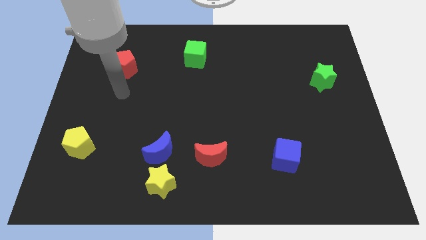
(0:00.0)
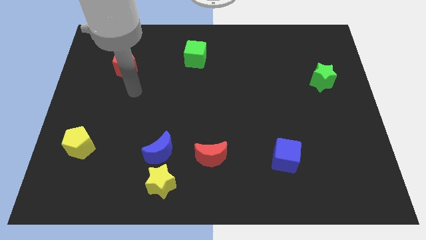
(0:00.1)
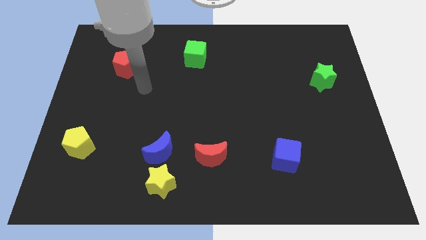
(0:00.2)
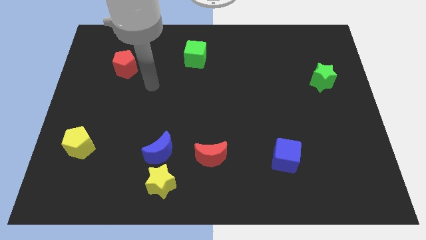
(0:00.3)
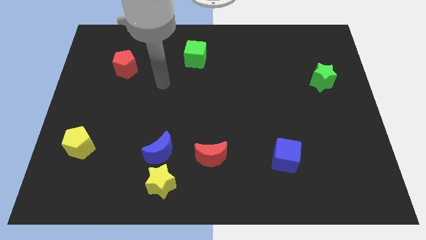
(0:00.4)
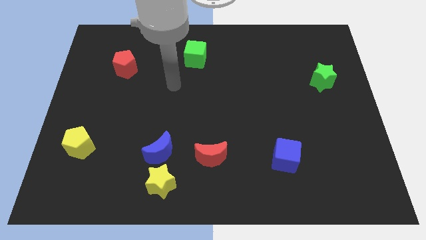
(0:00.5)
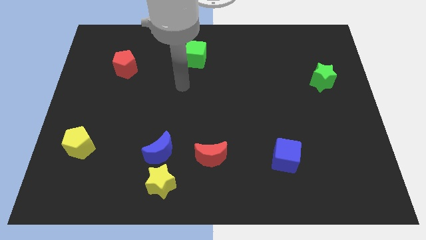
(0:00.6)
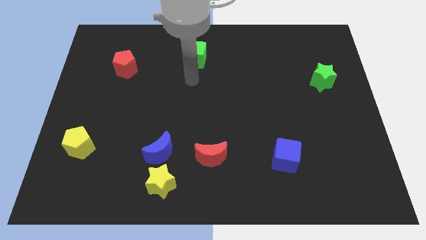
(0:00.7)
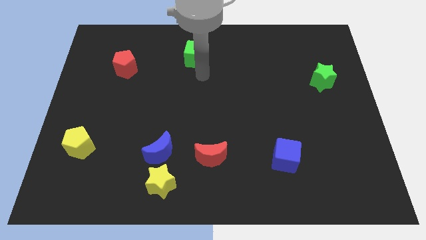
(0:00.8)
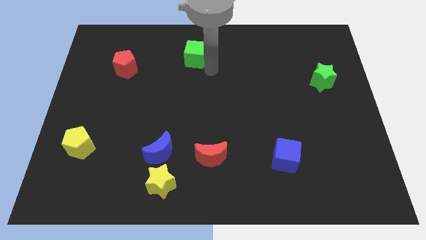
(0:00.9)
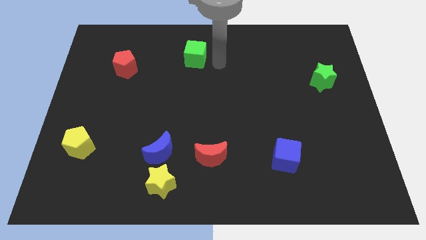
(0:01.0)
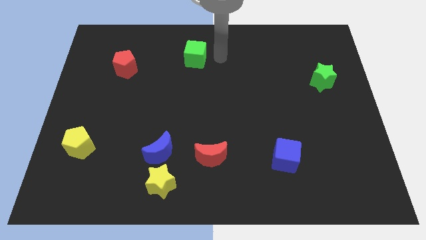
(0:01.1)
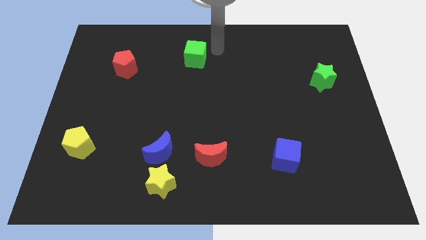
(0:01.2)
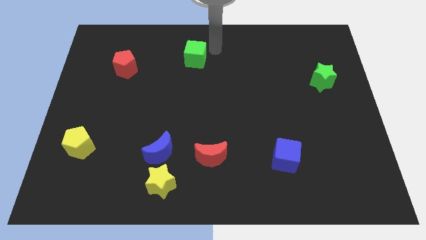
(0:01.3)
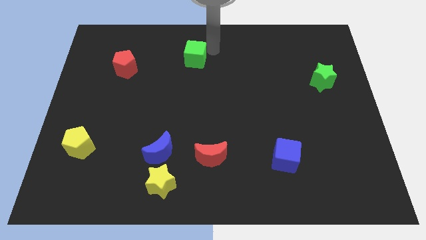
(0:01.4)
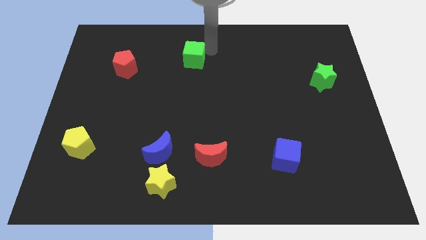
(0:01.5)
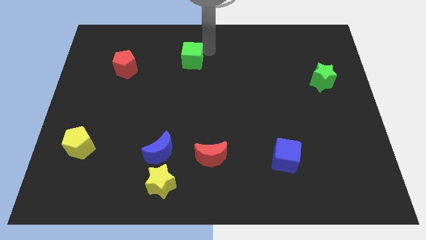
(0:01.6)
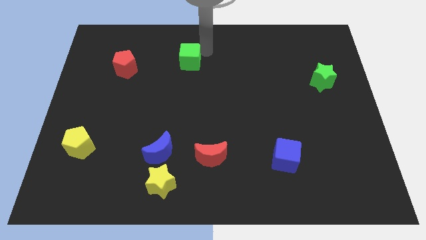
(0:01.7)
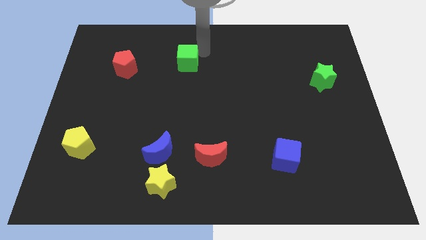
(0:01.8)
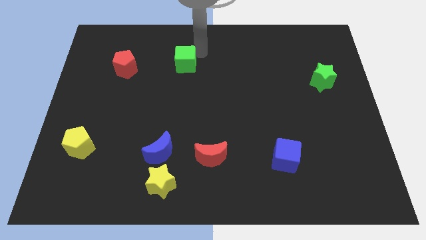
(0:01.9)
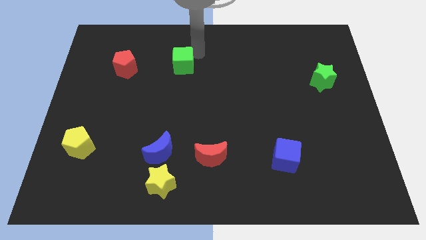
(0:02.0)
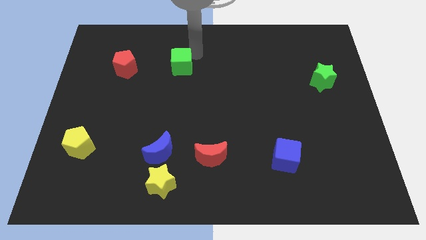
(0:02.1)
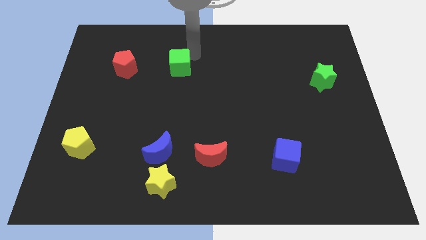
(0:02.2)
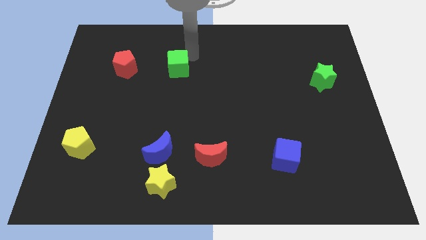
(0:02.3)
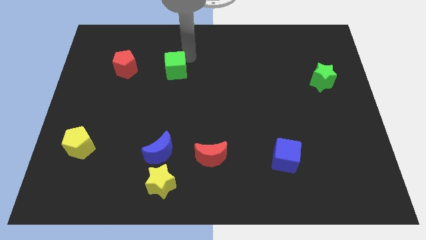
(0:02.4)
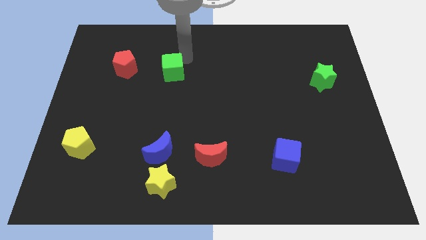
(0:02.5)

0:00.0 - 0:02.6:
push the green cube diagonally down and to the left slightly

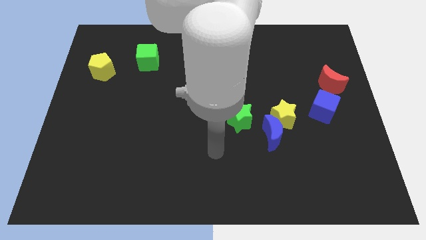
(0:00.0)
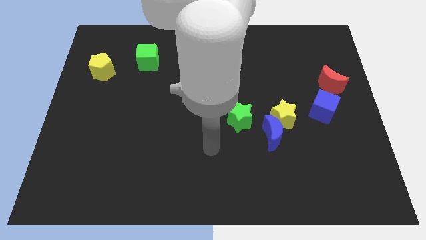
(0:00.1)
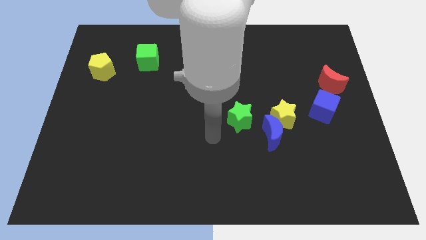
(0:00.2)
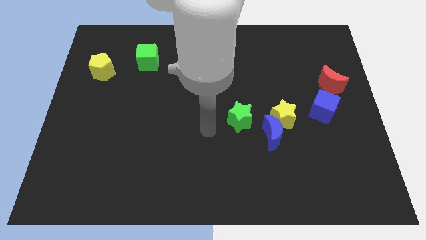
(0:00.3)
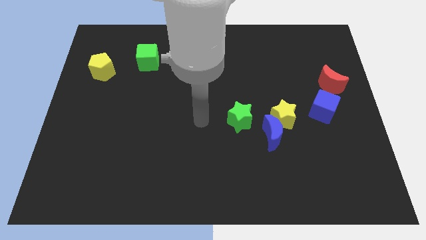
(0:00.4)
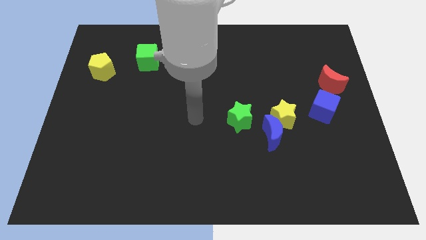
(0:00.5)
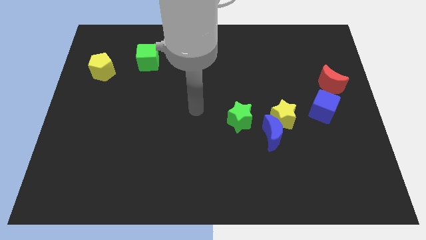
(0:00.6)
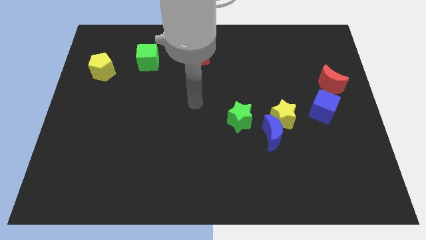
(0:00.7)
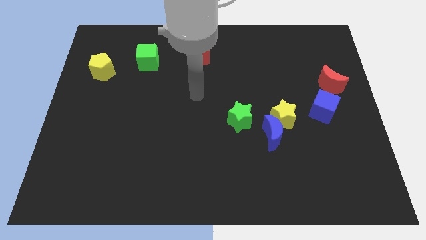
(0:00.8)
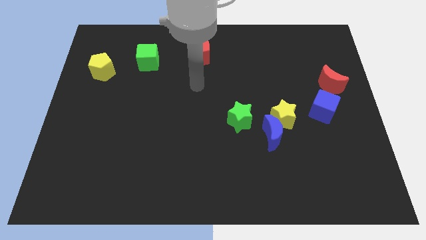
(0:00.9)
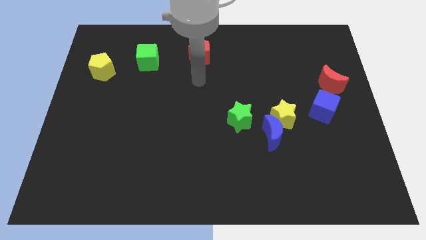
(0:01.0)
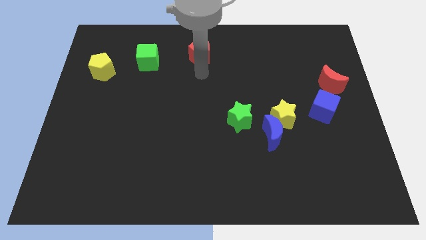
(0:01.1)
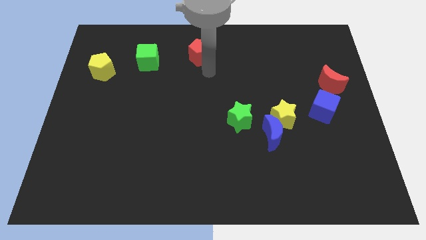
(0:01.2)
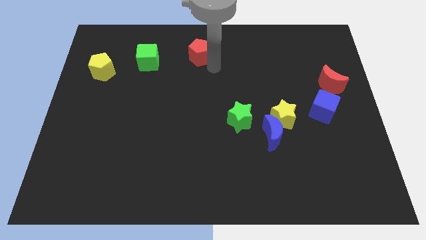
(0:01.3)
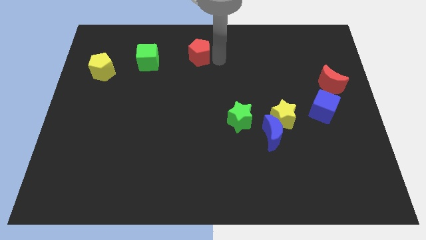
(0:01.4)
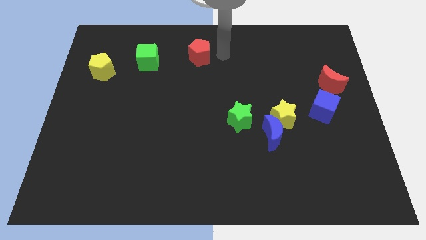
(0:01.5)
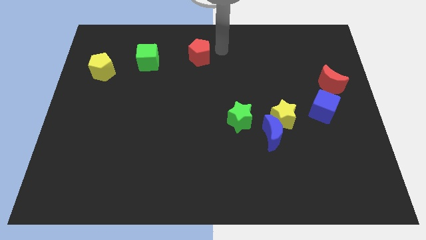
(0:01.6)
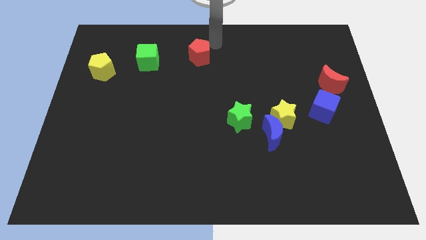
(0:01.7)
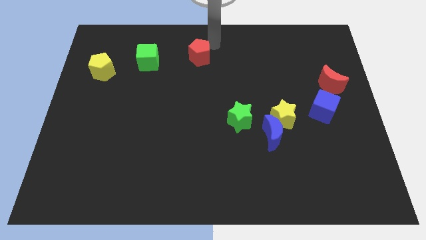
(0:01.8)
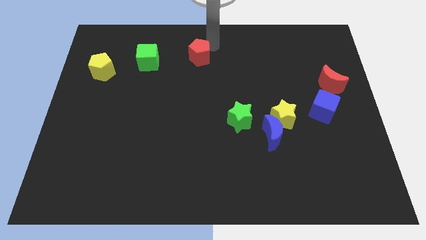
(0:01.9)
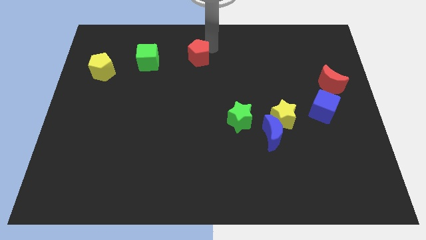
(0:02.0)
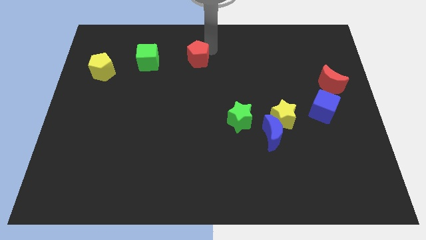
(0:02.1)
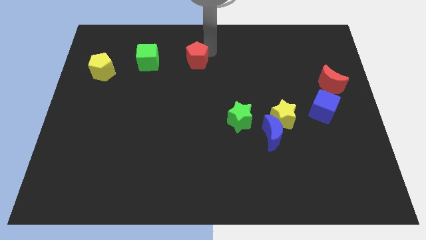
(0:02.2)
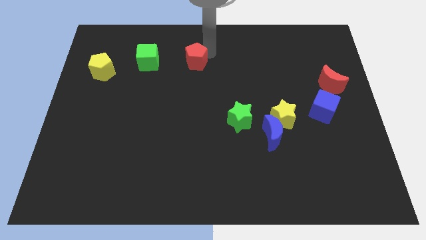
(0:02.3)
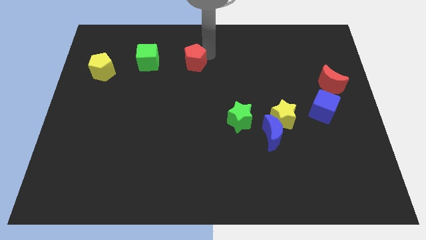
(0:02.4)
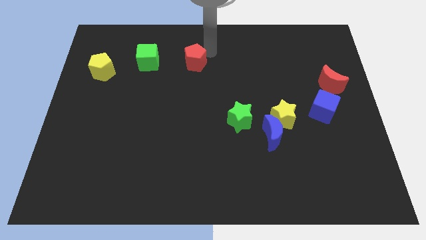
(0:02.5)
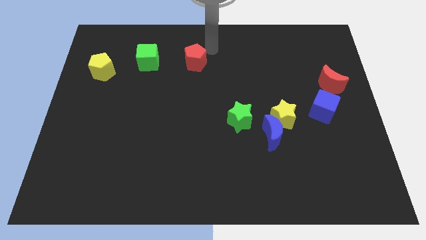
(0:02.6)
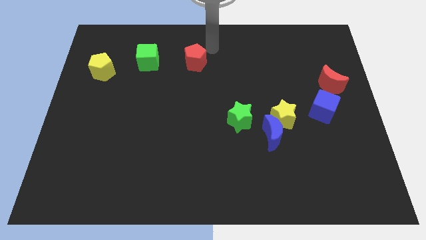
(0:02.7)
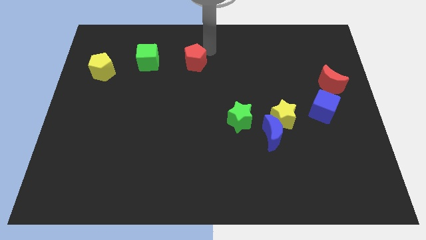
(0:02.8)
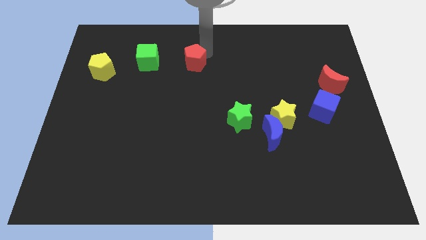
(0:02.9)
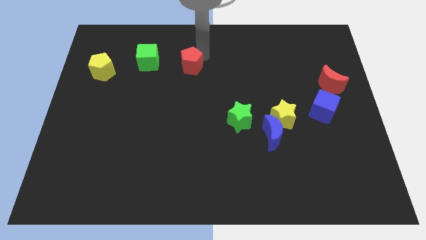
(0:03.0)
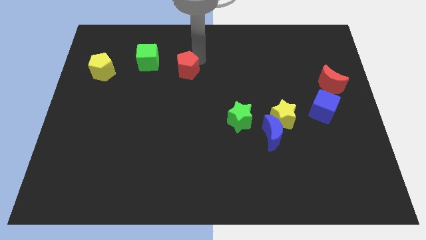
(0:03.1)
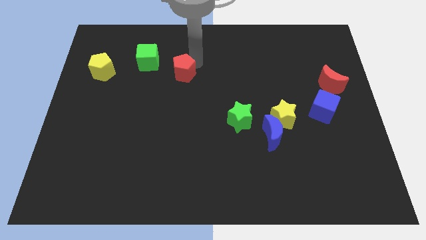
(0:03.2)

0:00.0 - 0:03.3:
push the red pentagon a little downwards and to the left diagonally

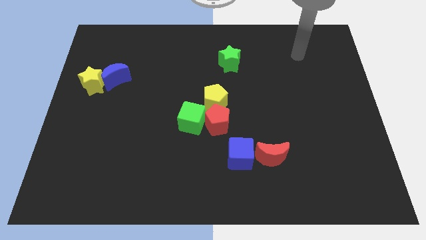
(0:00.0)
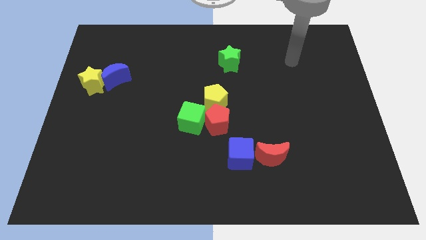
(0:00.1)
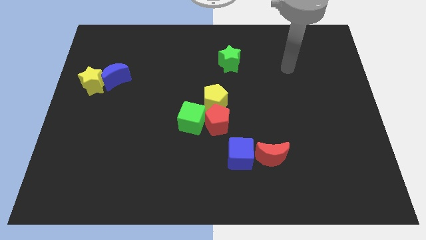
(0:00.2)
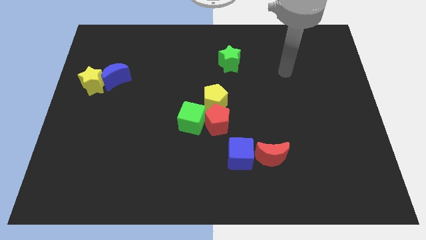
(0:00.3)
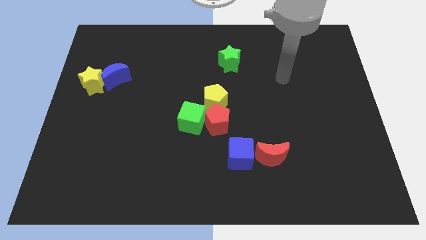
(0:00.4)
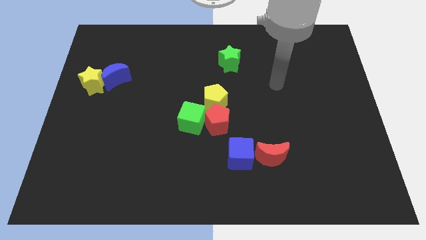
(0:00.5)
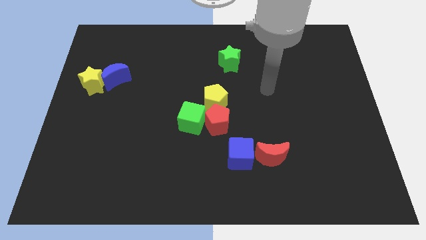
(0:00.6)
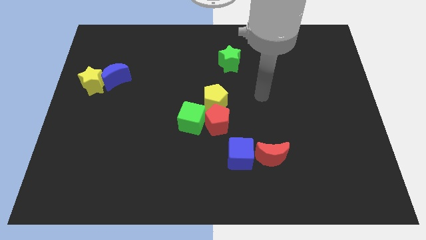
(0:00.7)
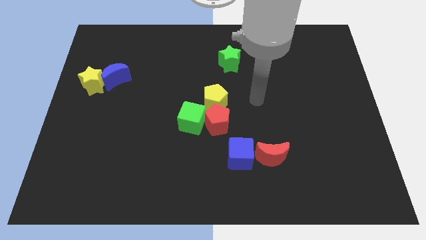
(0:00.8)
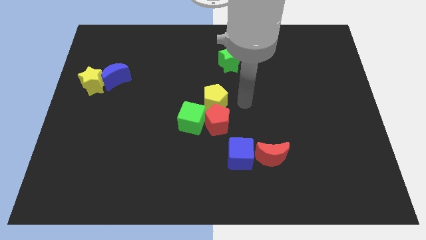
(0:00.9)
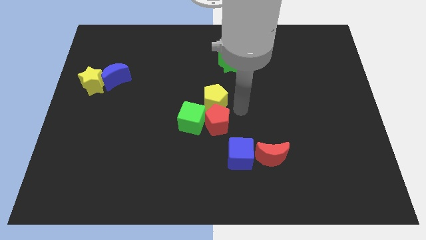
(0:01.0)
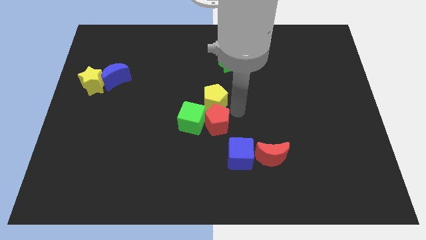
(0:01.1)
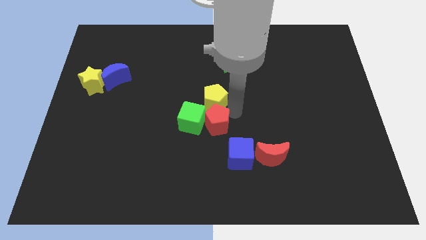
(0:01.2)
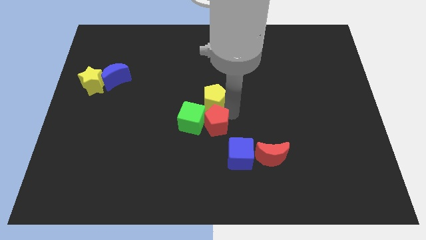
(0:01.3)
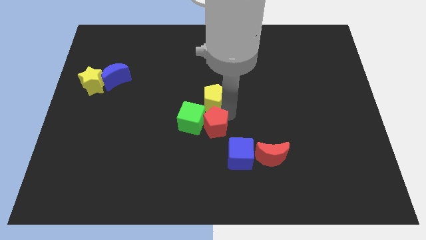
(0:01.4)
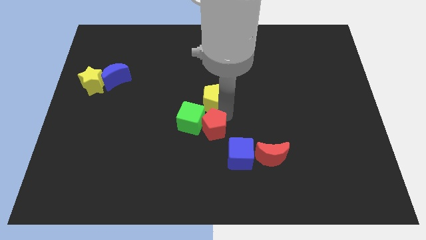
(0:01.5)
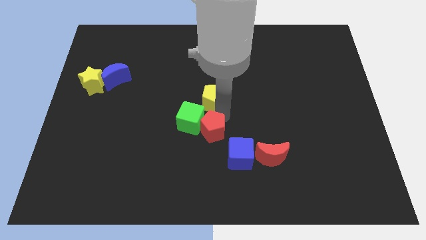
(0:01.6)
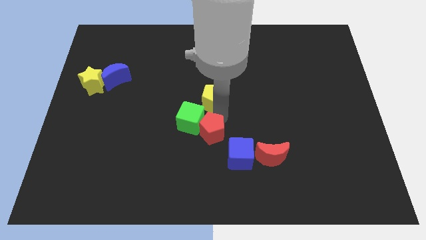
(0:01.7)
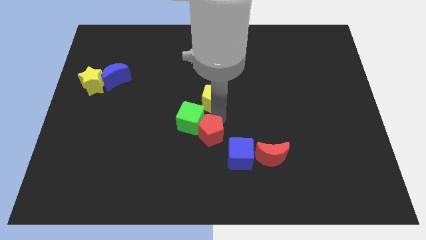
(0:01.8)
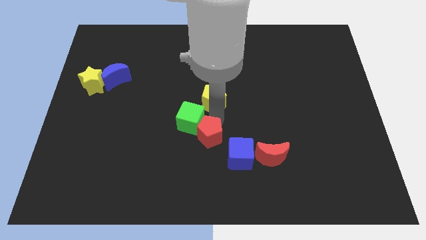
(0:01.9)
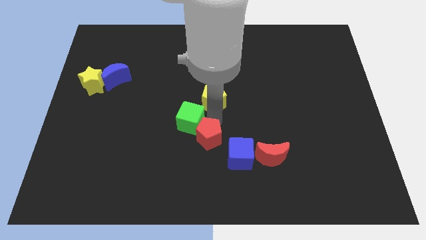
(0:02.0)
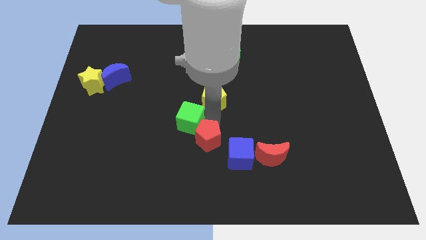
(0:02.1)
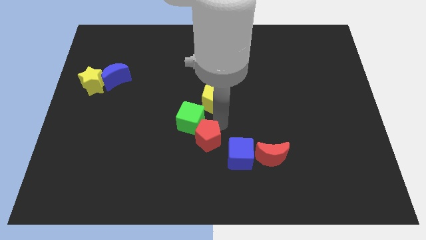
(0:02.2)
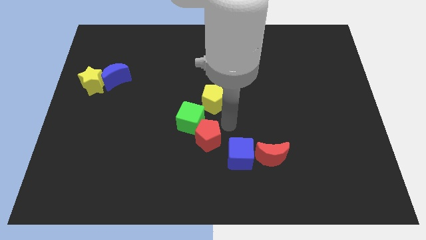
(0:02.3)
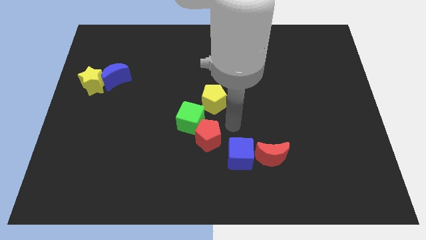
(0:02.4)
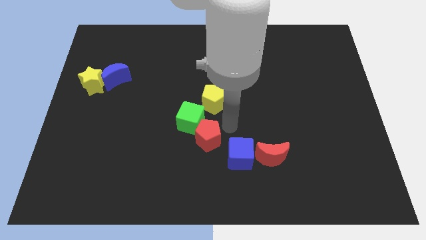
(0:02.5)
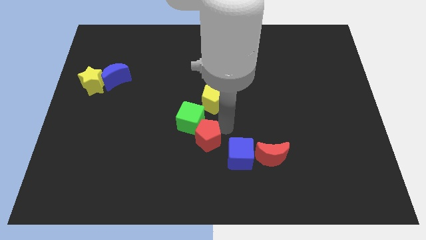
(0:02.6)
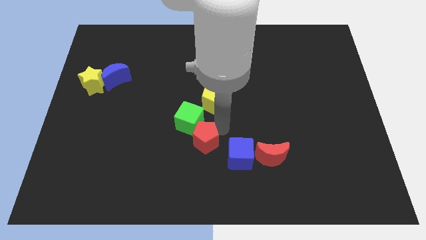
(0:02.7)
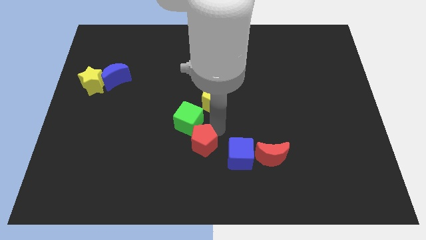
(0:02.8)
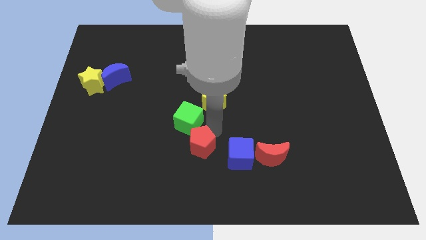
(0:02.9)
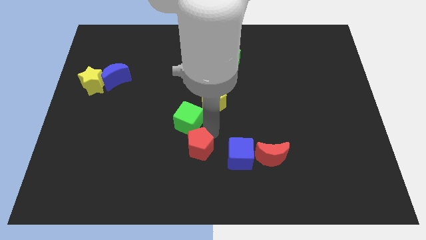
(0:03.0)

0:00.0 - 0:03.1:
slightly slide the red pentagon down and left
